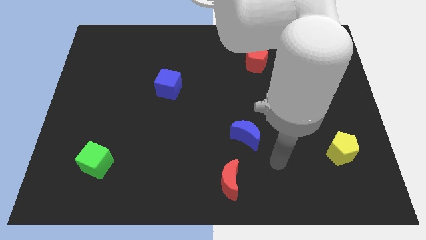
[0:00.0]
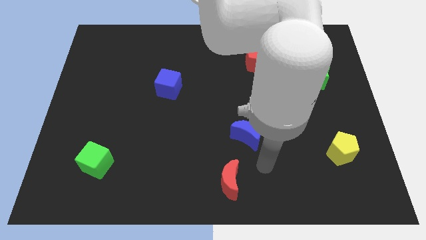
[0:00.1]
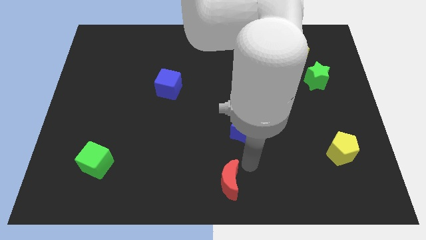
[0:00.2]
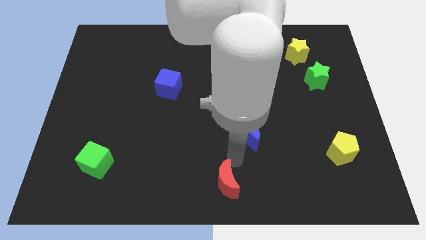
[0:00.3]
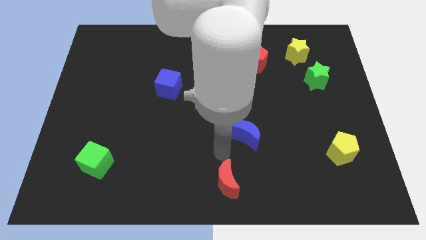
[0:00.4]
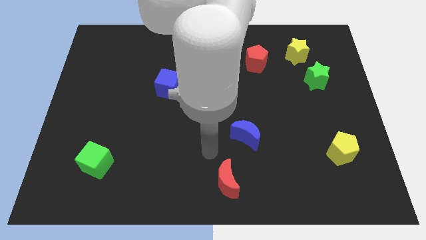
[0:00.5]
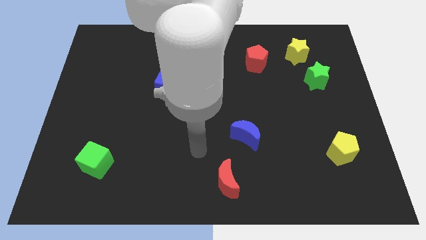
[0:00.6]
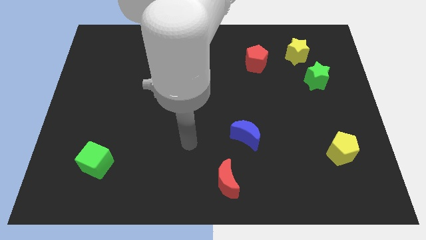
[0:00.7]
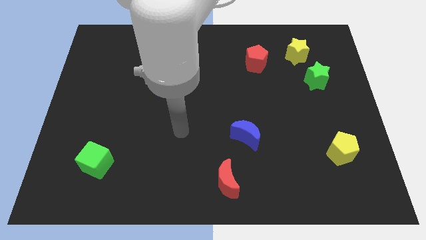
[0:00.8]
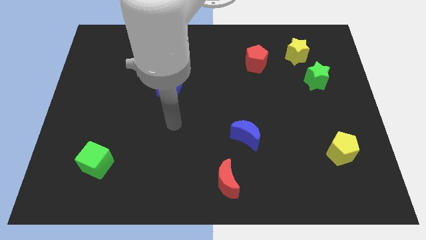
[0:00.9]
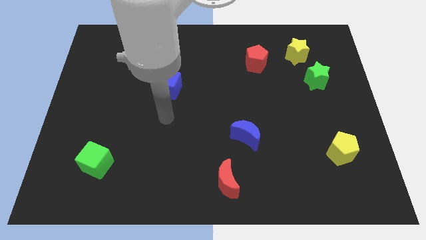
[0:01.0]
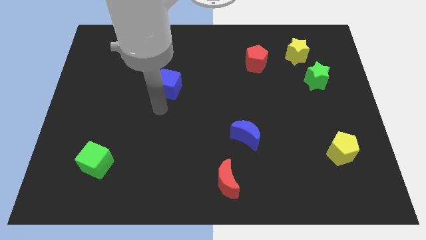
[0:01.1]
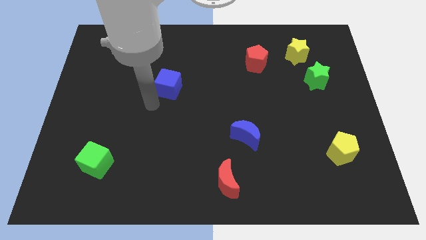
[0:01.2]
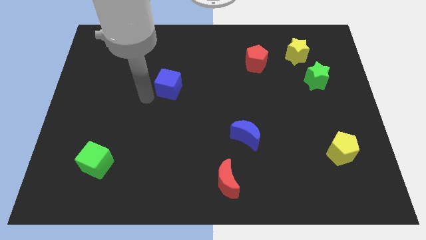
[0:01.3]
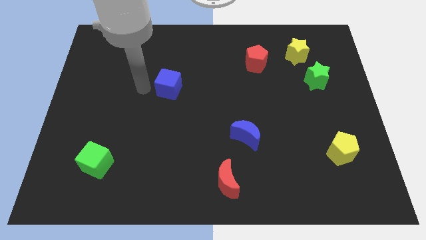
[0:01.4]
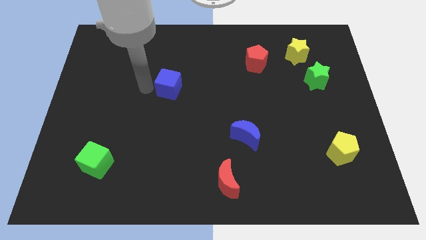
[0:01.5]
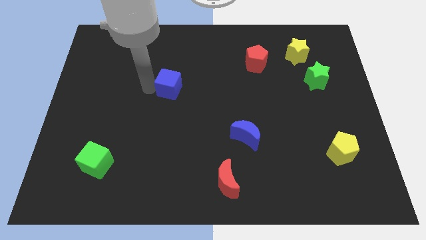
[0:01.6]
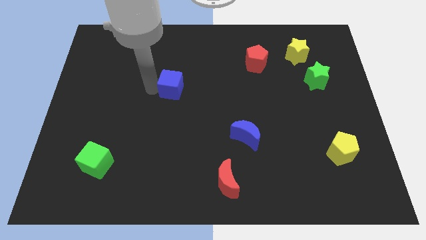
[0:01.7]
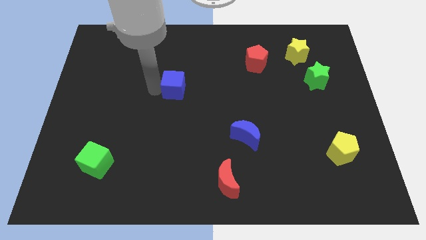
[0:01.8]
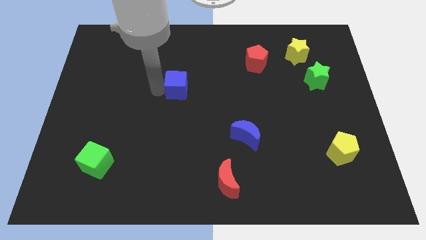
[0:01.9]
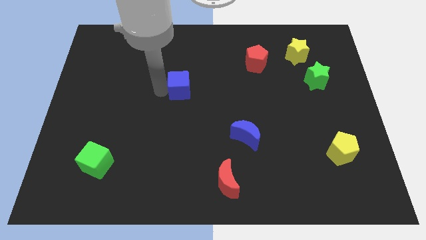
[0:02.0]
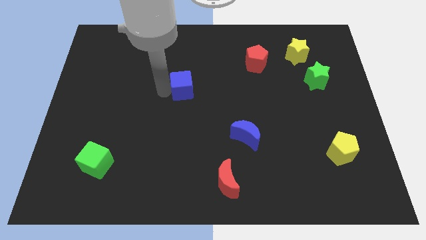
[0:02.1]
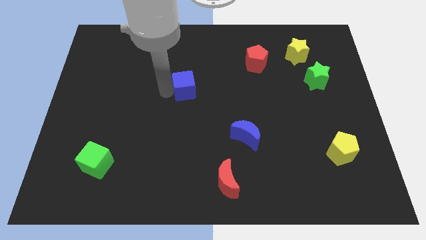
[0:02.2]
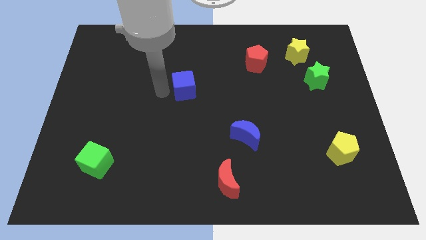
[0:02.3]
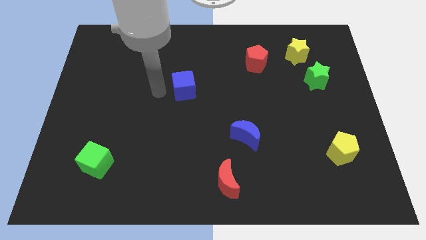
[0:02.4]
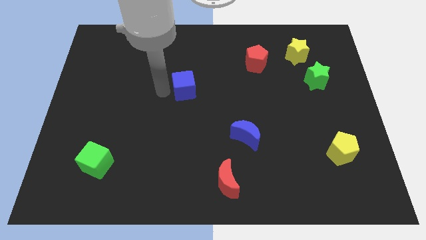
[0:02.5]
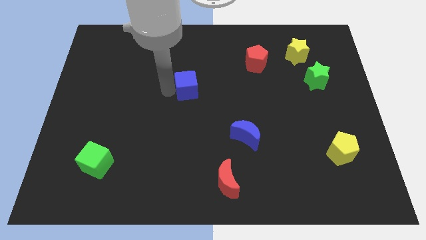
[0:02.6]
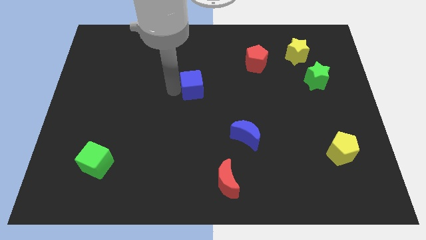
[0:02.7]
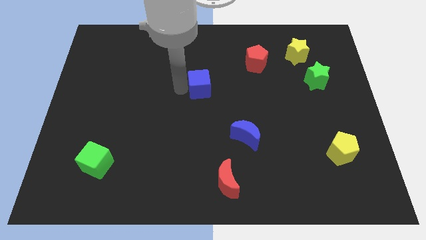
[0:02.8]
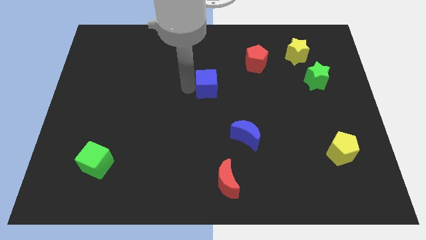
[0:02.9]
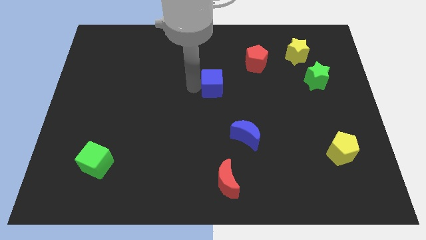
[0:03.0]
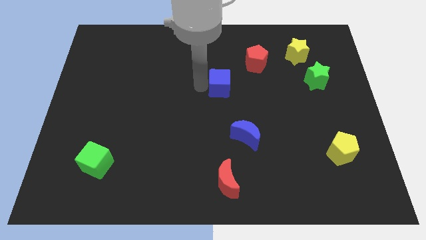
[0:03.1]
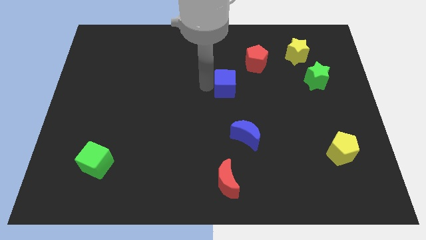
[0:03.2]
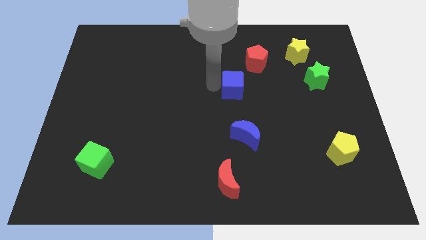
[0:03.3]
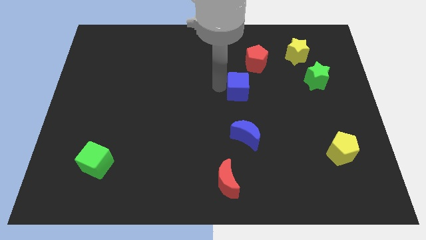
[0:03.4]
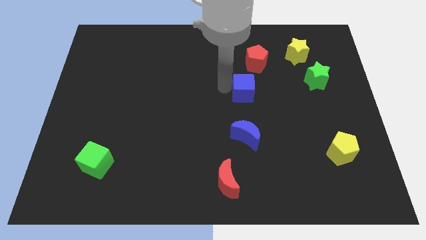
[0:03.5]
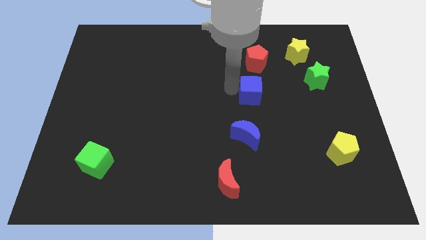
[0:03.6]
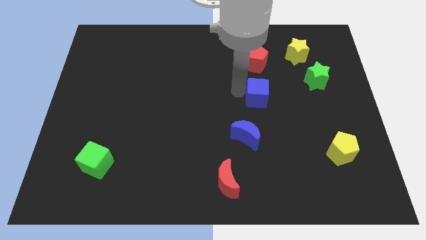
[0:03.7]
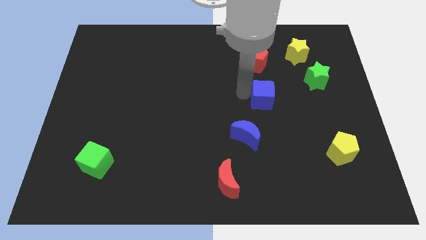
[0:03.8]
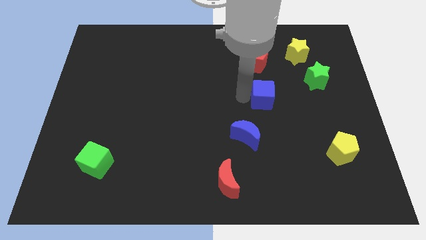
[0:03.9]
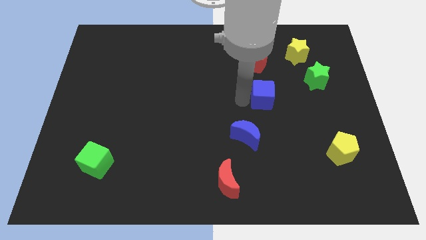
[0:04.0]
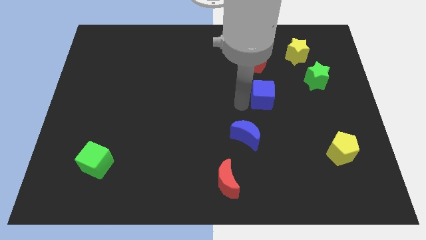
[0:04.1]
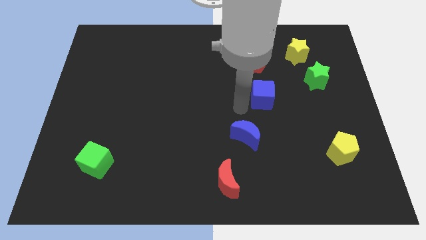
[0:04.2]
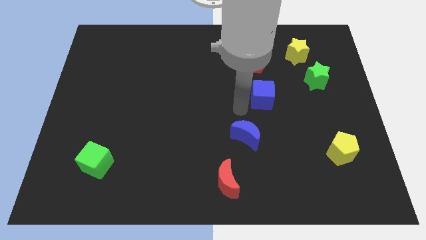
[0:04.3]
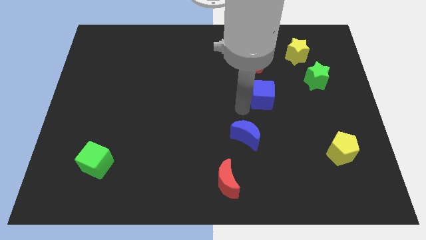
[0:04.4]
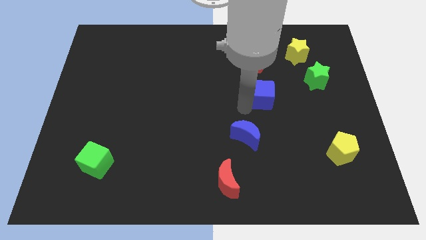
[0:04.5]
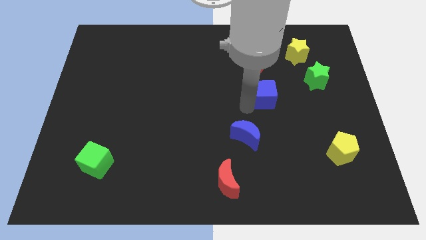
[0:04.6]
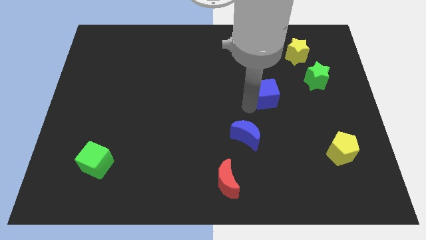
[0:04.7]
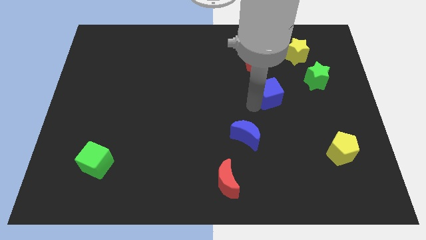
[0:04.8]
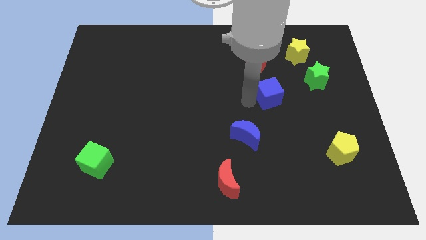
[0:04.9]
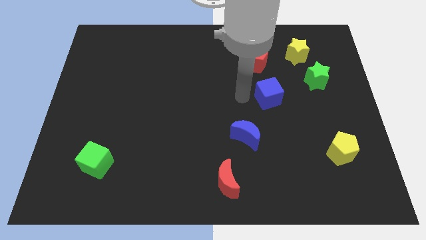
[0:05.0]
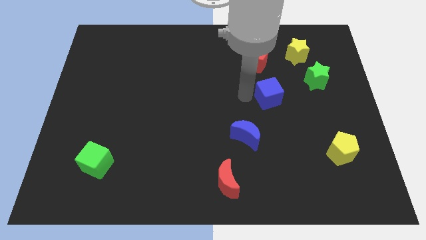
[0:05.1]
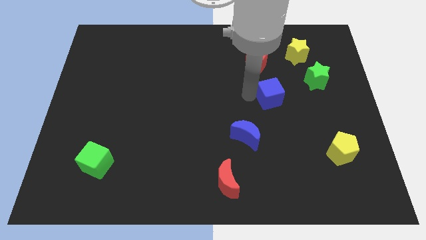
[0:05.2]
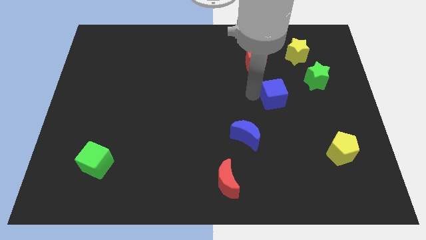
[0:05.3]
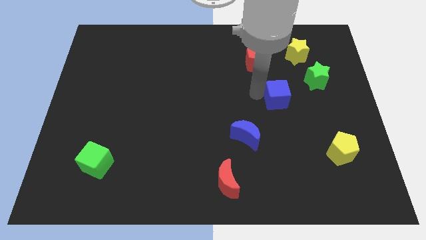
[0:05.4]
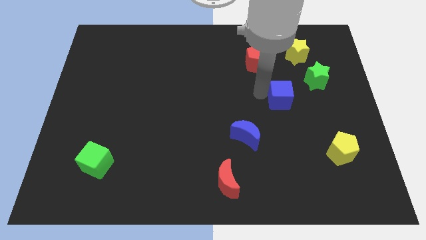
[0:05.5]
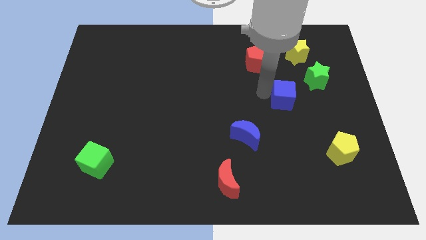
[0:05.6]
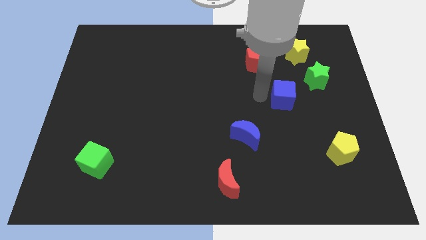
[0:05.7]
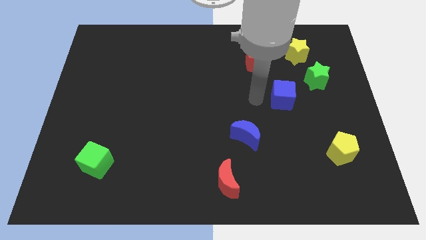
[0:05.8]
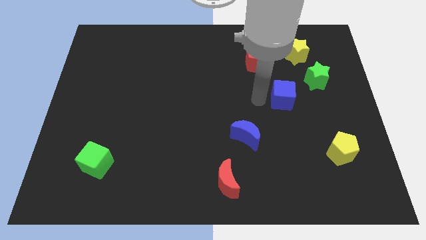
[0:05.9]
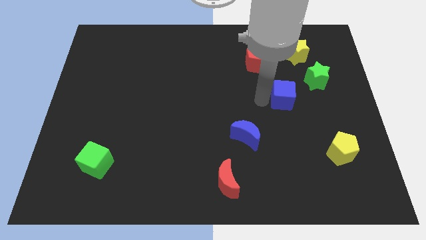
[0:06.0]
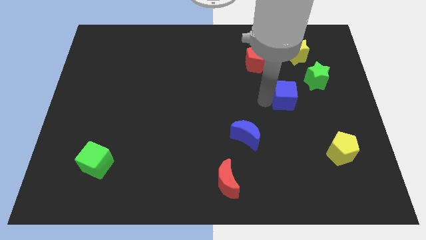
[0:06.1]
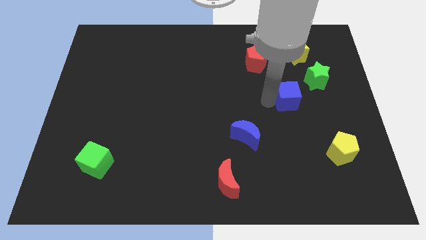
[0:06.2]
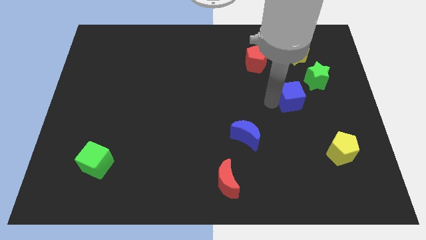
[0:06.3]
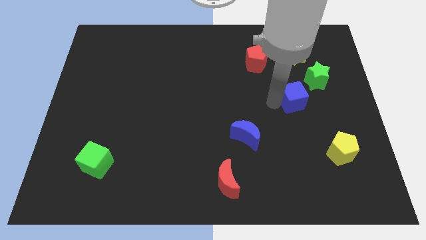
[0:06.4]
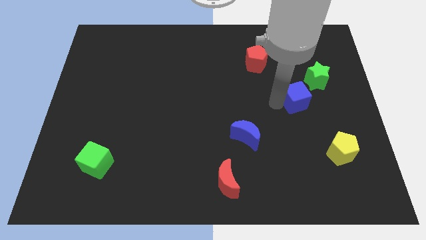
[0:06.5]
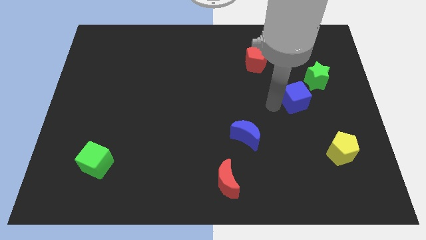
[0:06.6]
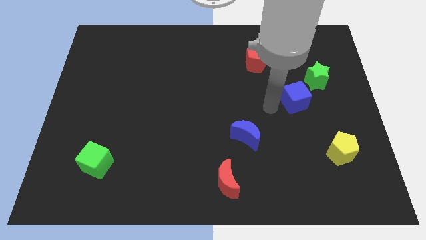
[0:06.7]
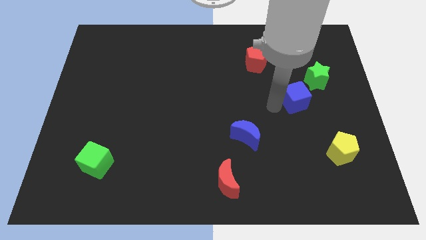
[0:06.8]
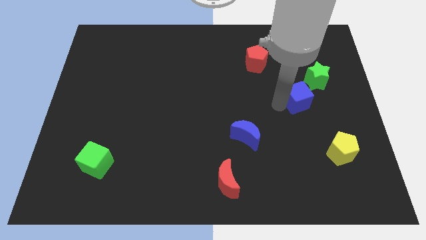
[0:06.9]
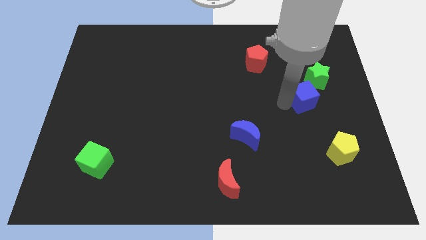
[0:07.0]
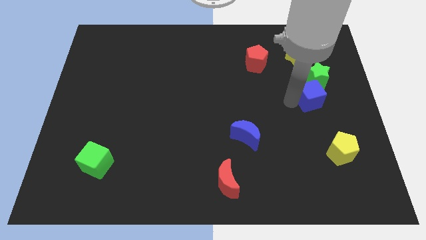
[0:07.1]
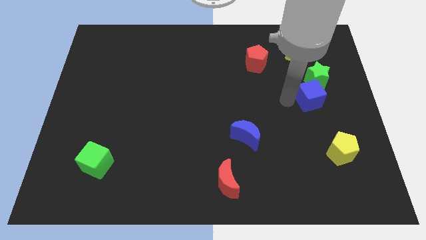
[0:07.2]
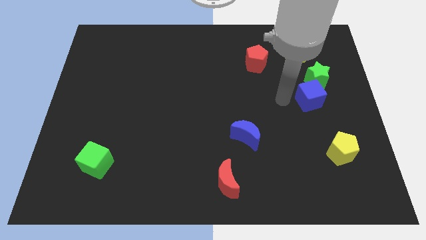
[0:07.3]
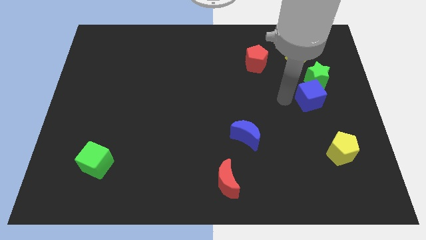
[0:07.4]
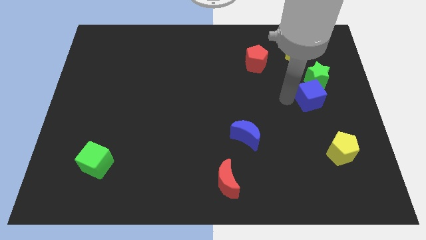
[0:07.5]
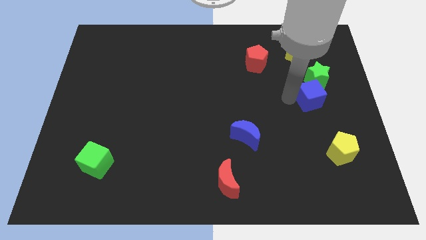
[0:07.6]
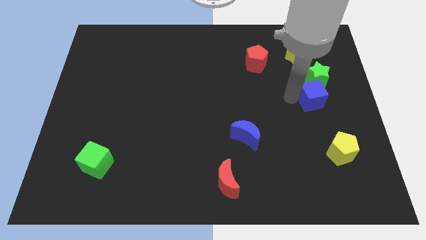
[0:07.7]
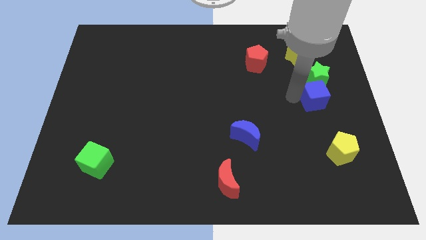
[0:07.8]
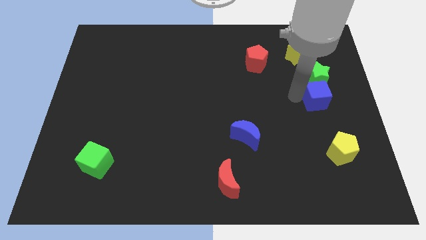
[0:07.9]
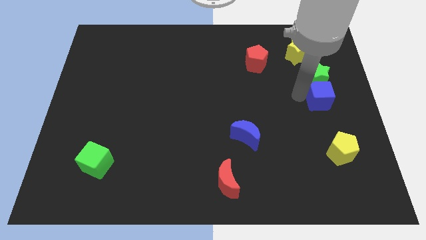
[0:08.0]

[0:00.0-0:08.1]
move the blue cube to the right side of the board
